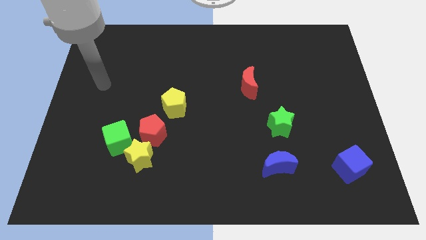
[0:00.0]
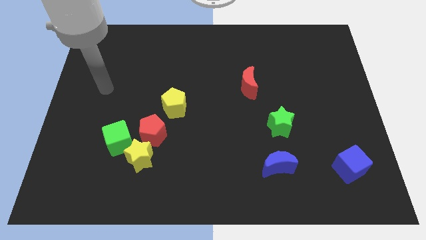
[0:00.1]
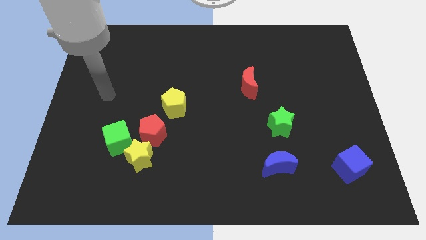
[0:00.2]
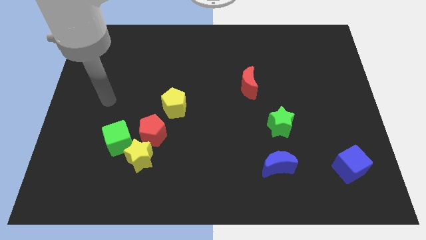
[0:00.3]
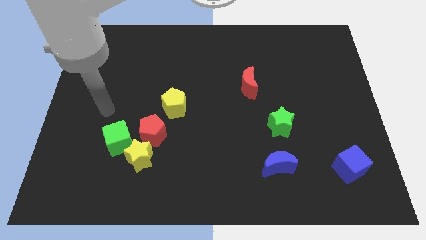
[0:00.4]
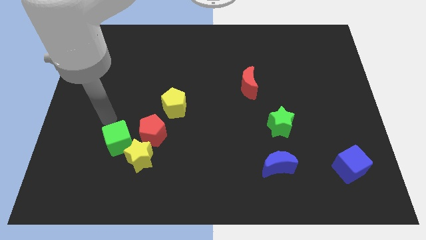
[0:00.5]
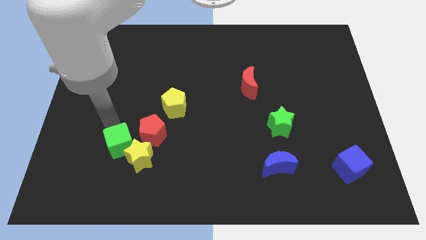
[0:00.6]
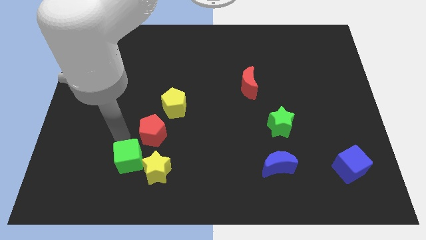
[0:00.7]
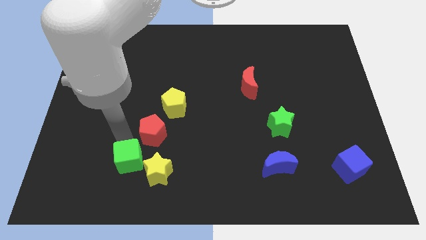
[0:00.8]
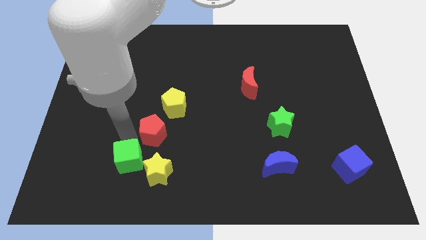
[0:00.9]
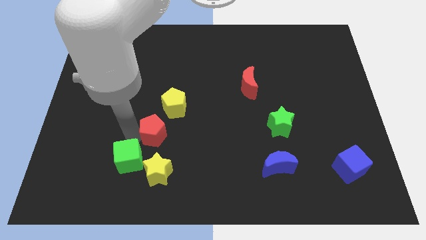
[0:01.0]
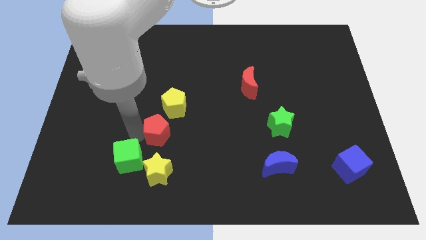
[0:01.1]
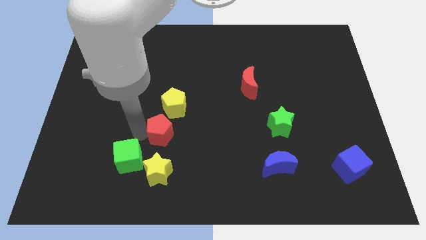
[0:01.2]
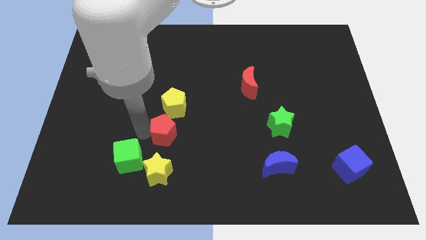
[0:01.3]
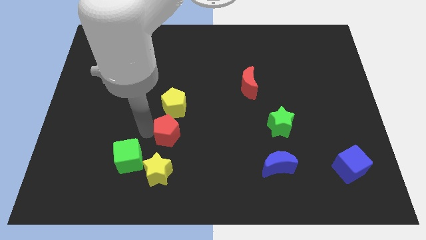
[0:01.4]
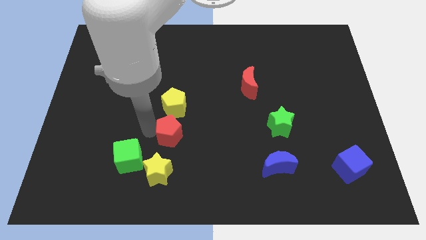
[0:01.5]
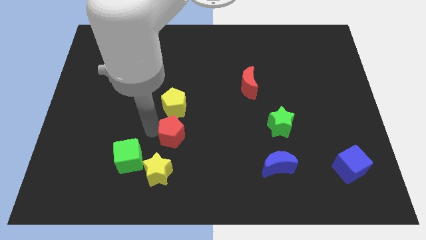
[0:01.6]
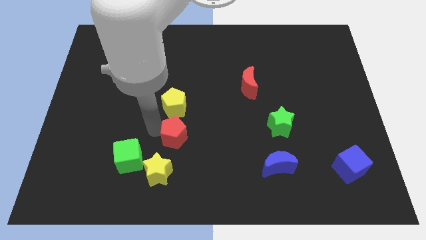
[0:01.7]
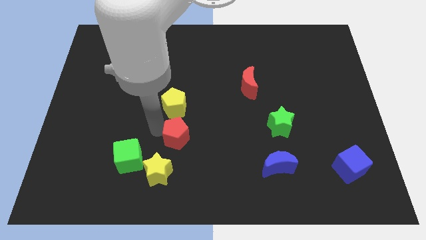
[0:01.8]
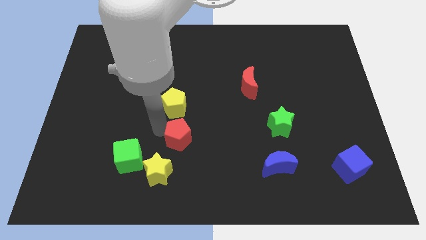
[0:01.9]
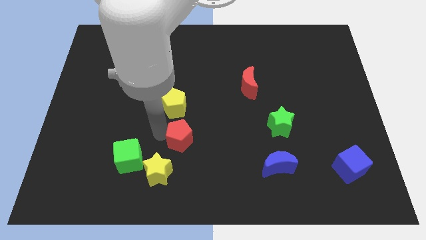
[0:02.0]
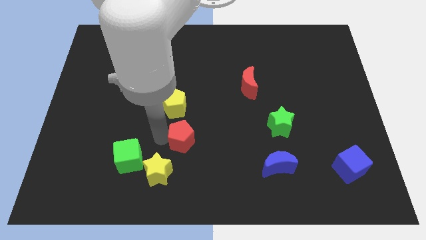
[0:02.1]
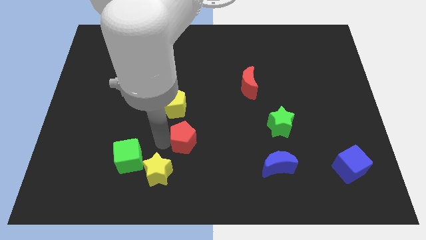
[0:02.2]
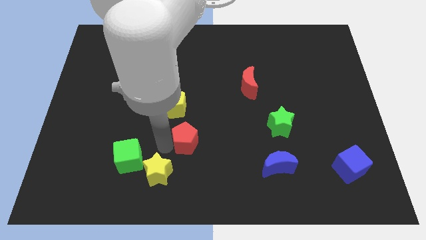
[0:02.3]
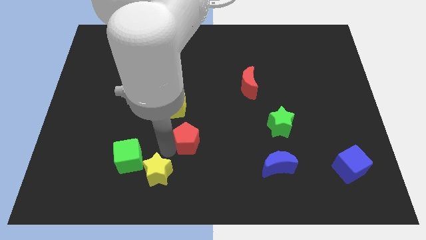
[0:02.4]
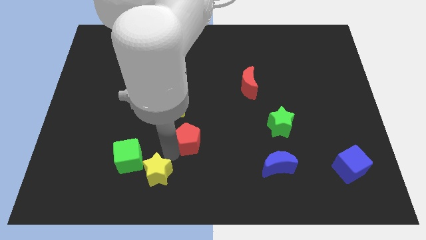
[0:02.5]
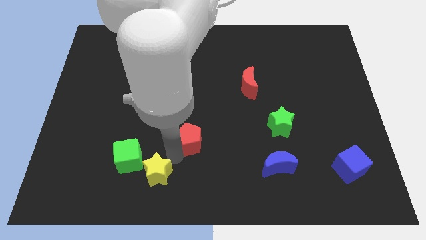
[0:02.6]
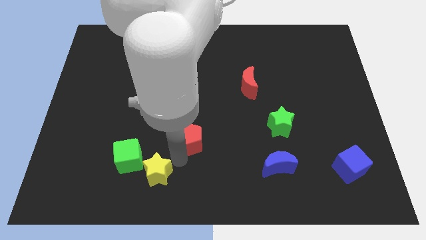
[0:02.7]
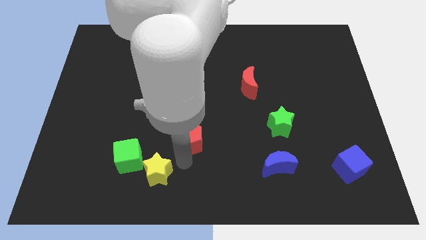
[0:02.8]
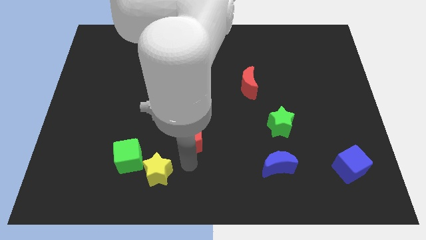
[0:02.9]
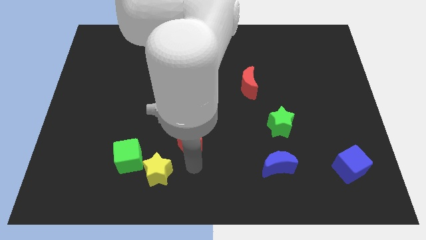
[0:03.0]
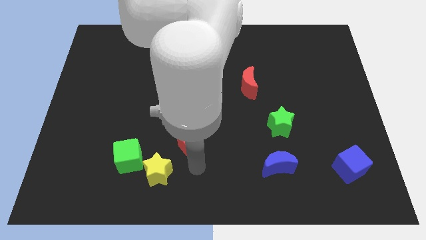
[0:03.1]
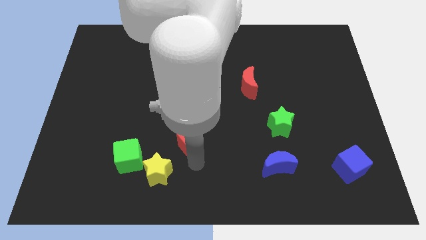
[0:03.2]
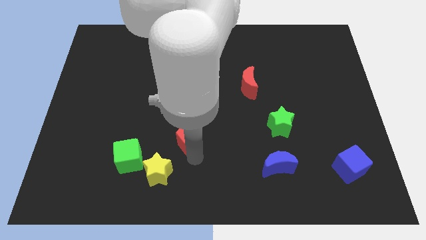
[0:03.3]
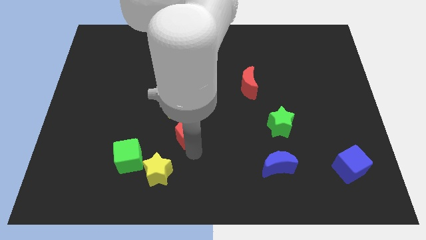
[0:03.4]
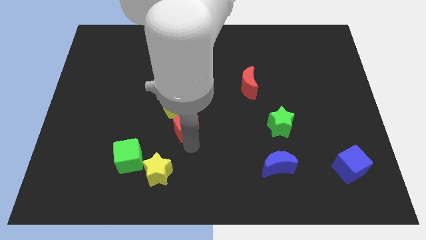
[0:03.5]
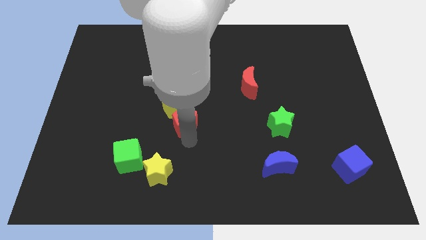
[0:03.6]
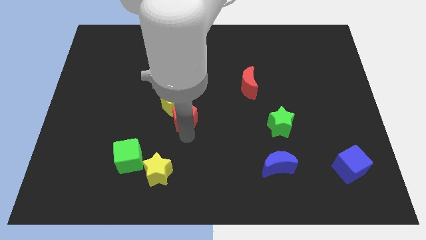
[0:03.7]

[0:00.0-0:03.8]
slide the red pentagon a little bit upwards and then right

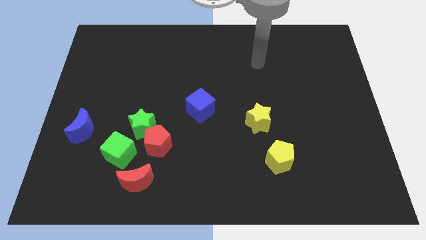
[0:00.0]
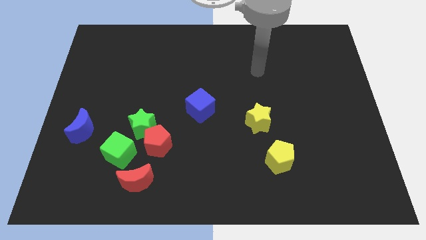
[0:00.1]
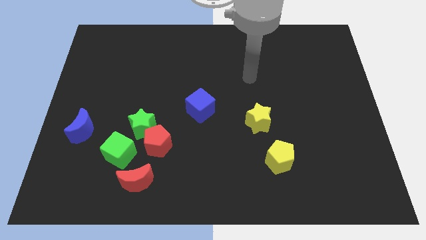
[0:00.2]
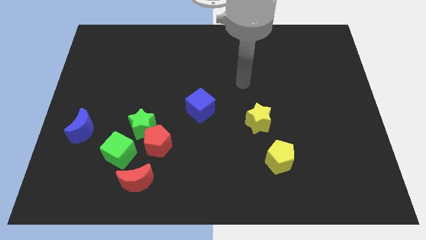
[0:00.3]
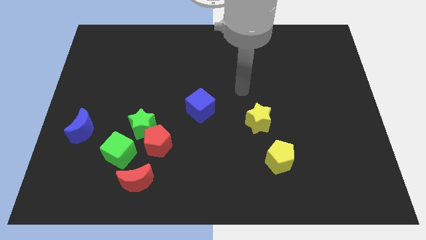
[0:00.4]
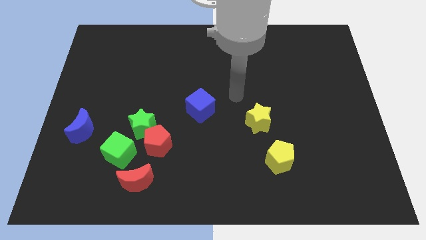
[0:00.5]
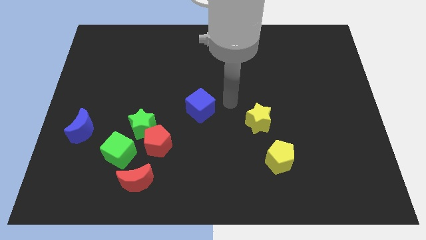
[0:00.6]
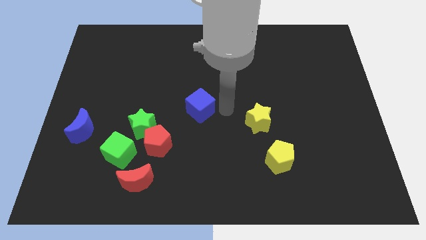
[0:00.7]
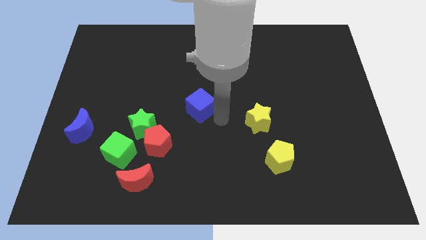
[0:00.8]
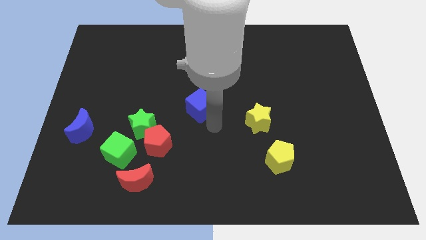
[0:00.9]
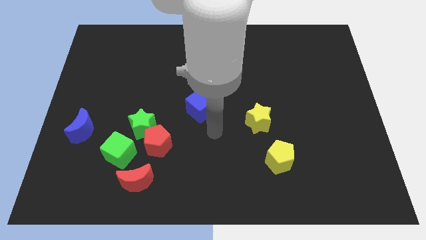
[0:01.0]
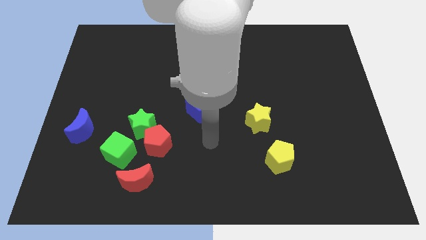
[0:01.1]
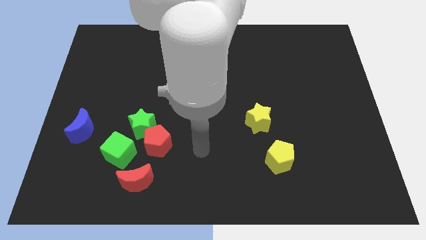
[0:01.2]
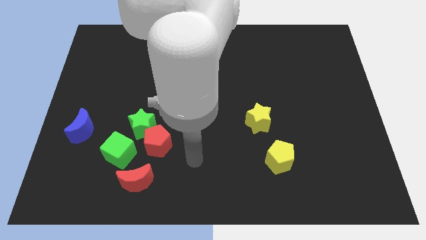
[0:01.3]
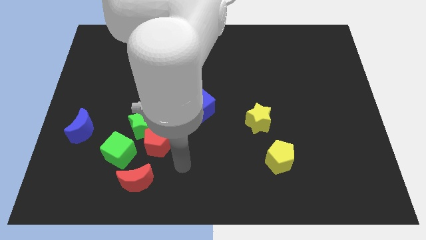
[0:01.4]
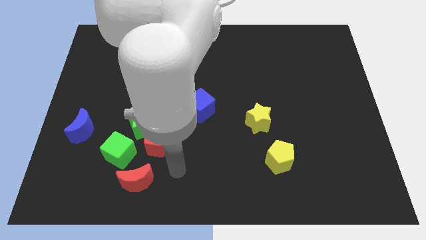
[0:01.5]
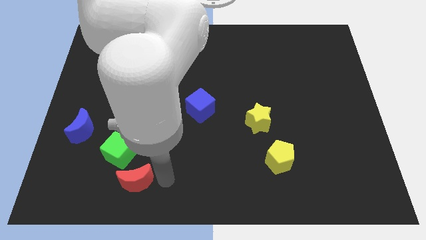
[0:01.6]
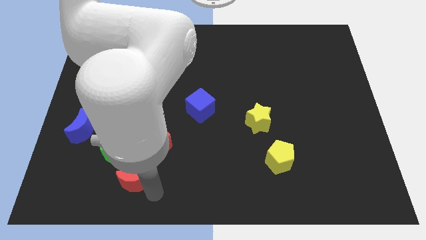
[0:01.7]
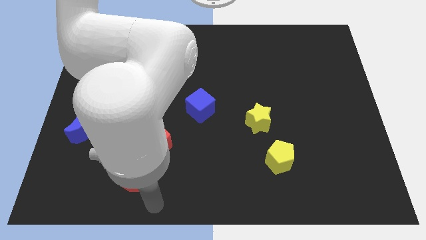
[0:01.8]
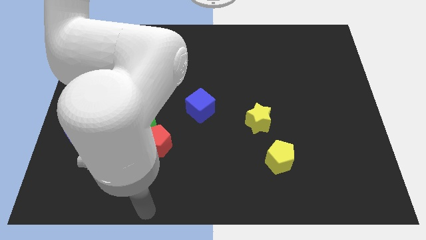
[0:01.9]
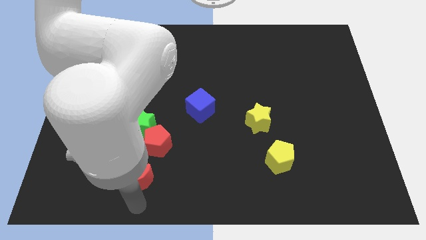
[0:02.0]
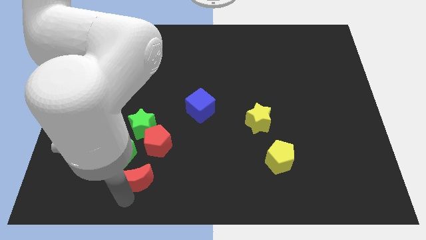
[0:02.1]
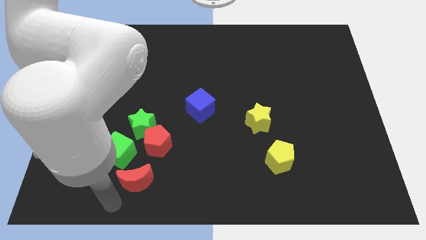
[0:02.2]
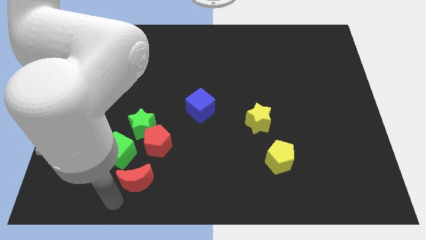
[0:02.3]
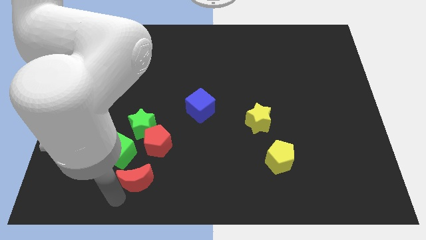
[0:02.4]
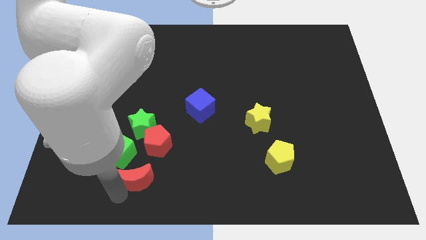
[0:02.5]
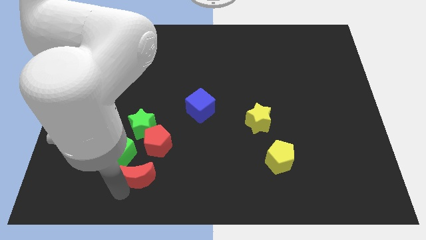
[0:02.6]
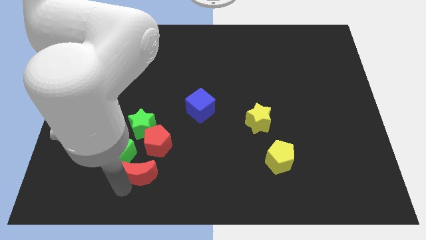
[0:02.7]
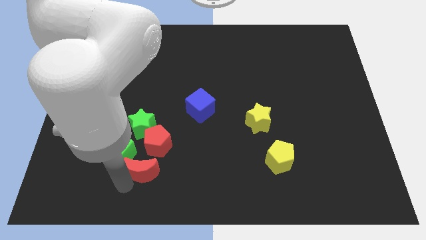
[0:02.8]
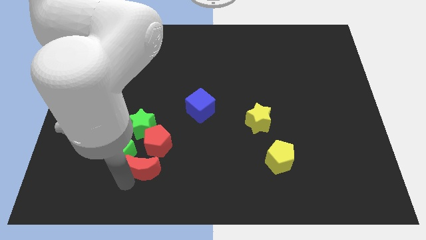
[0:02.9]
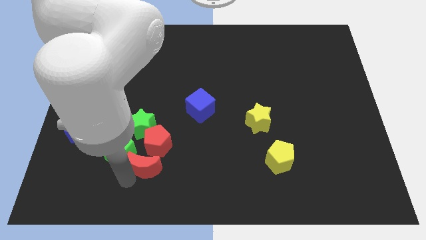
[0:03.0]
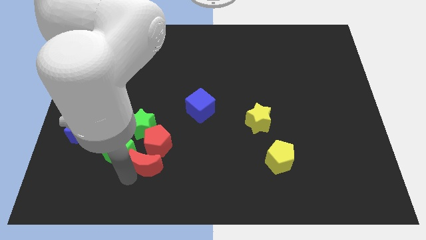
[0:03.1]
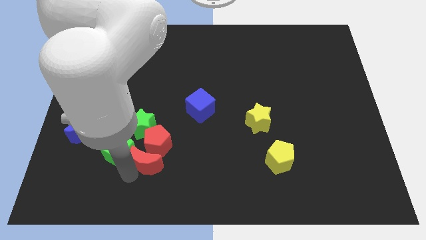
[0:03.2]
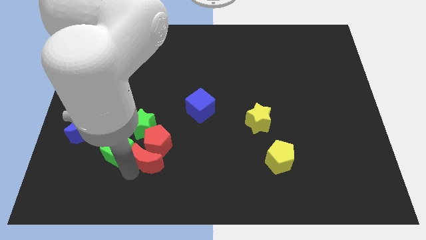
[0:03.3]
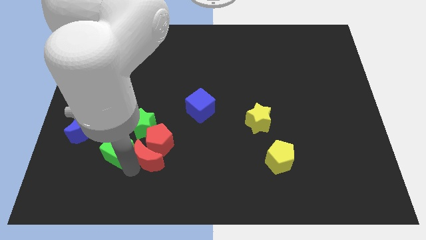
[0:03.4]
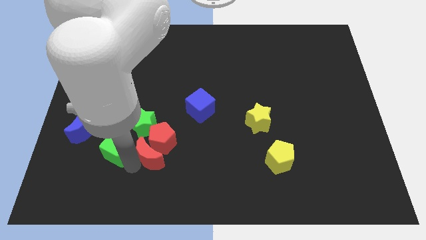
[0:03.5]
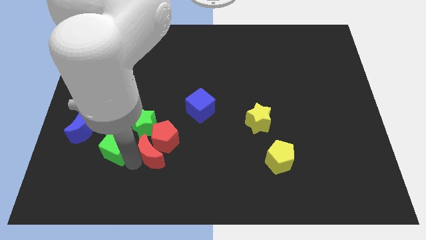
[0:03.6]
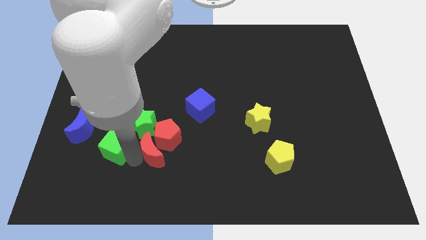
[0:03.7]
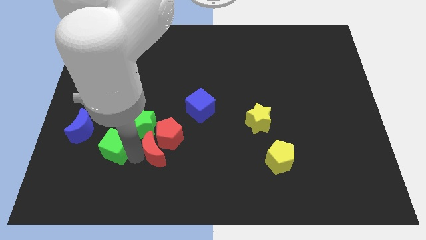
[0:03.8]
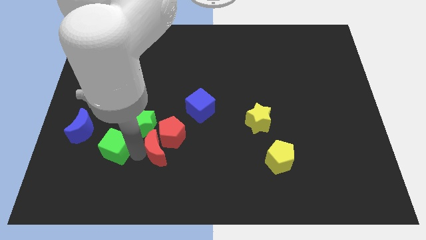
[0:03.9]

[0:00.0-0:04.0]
move the red moon a bit diagonally up and right
